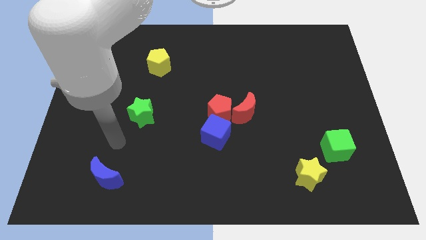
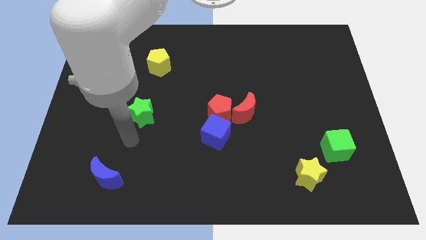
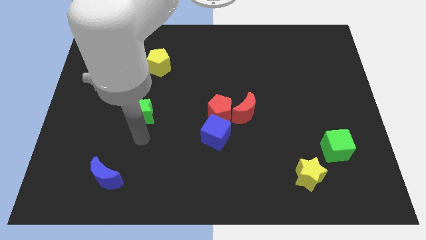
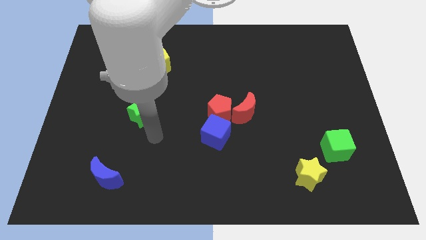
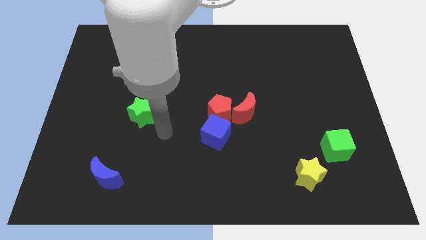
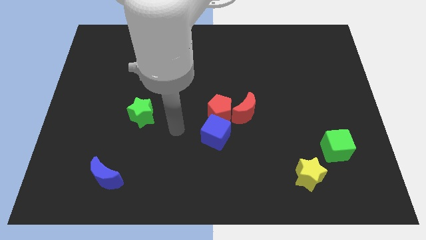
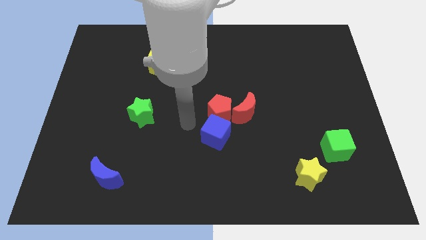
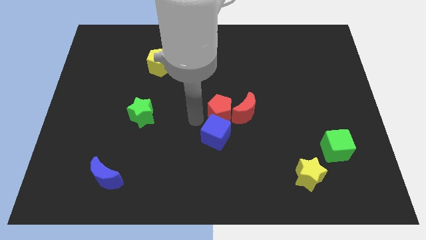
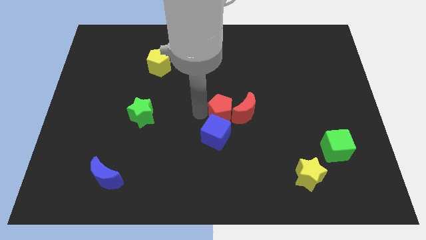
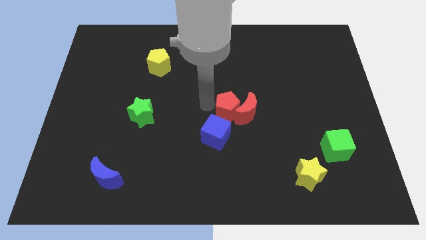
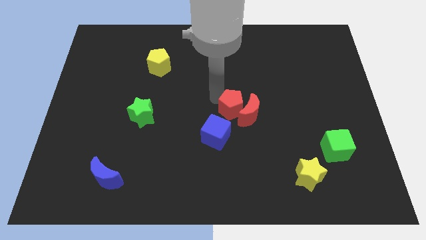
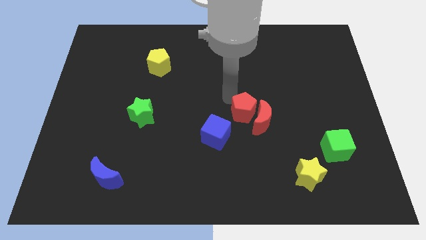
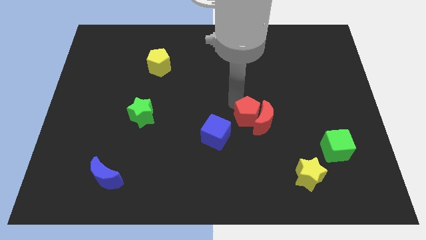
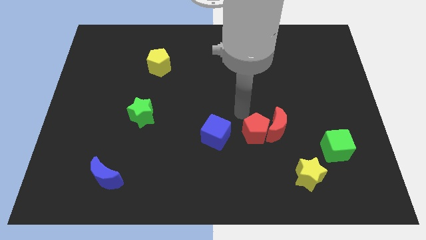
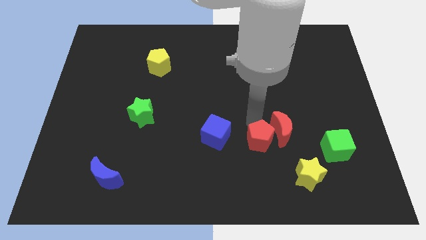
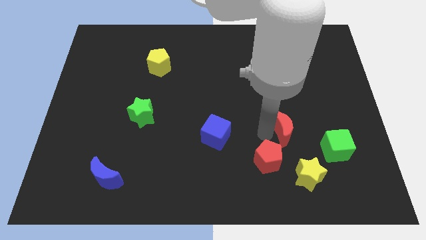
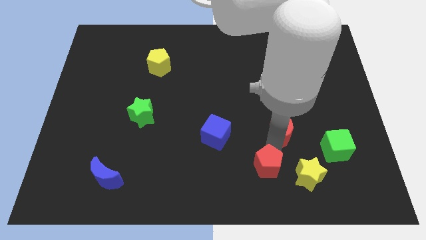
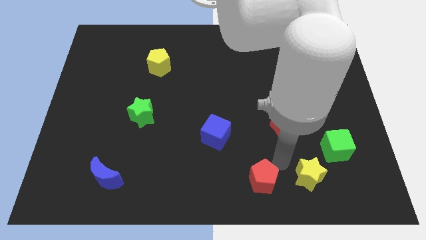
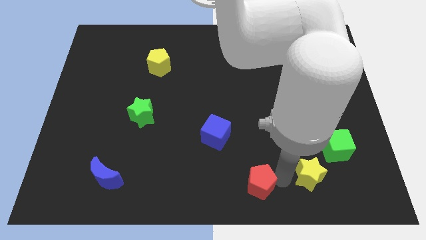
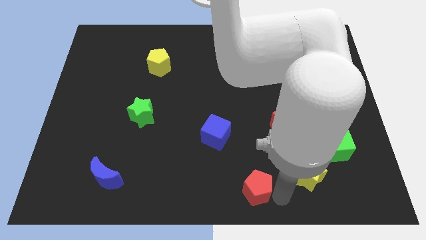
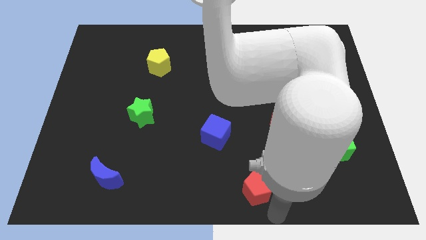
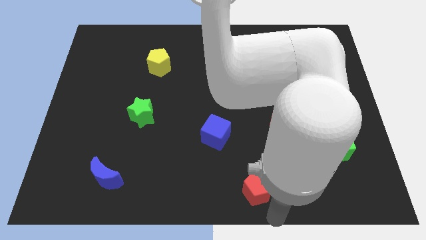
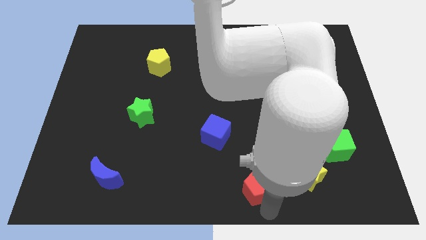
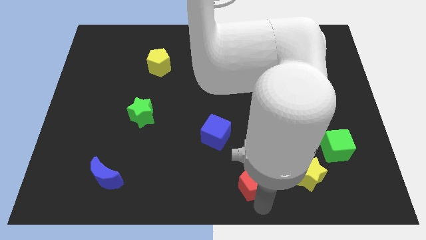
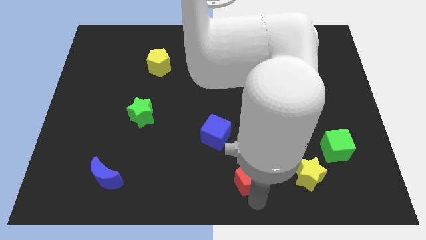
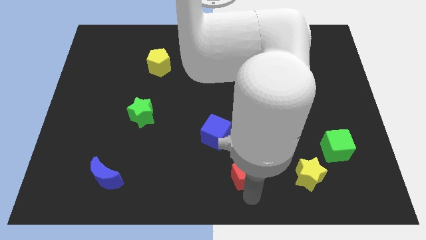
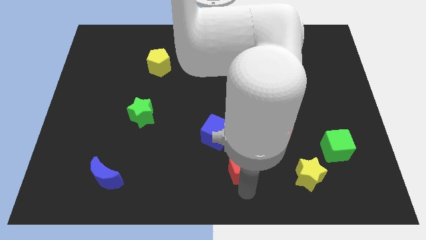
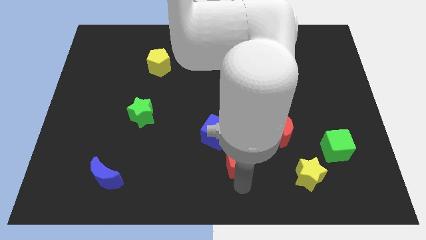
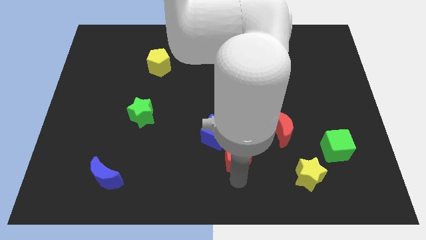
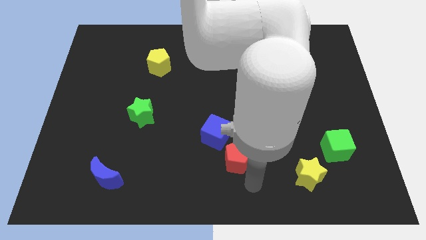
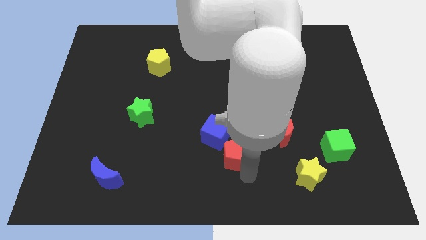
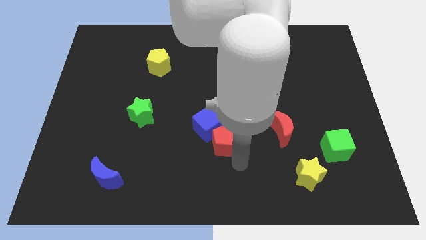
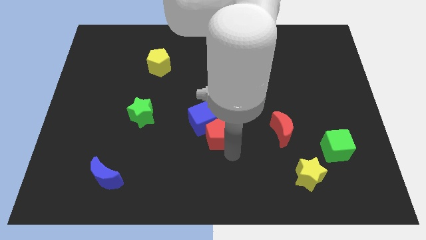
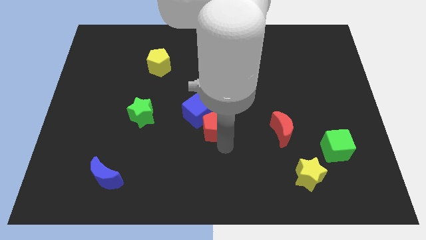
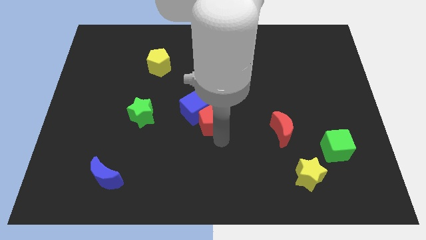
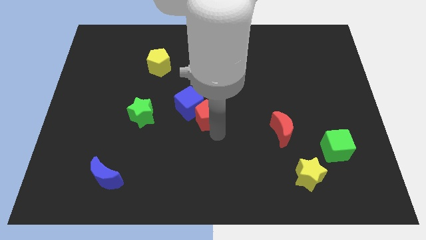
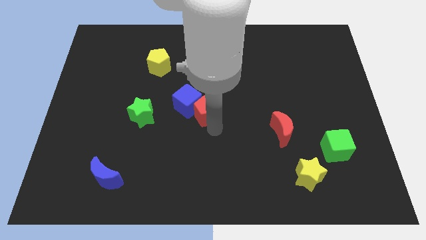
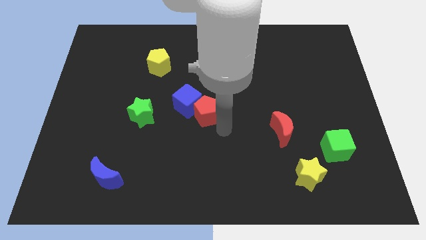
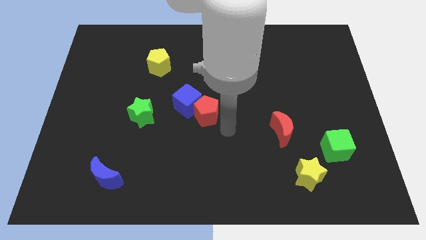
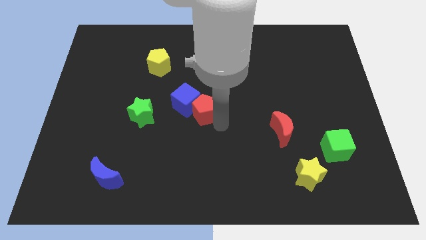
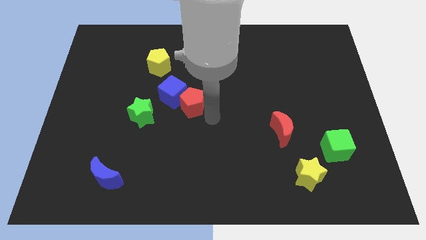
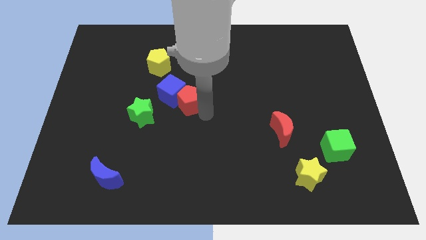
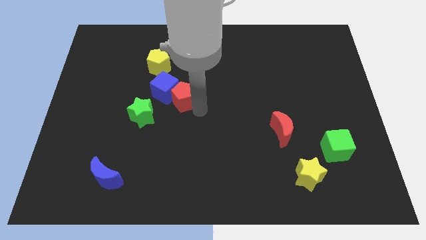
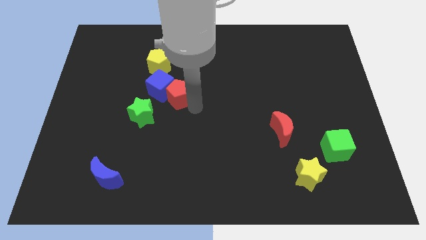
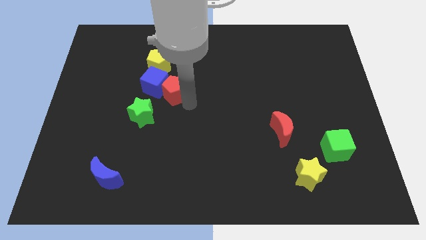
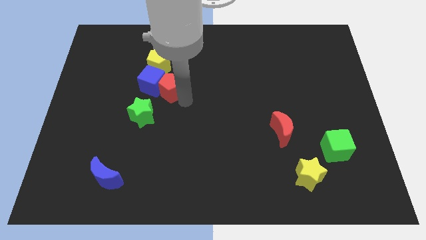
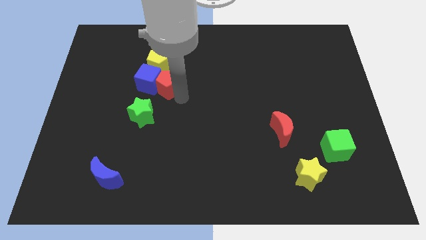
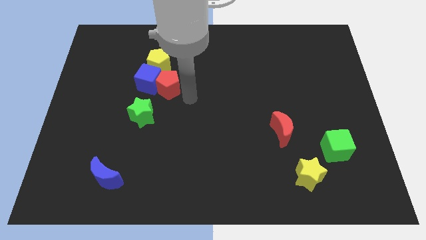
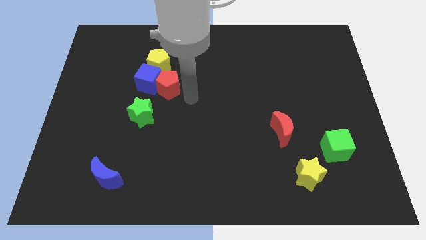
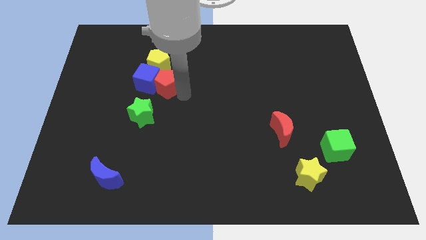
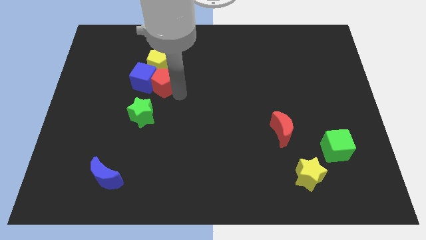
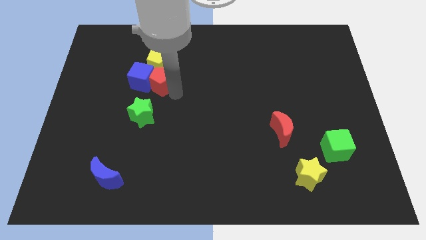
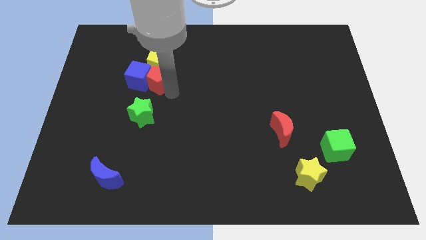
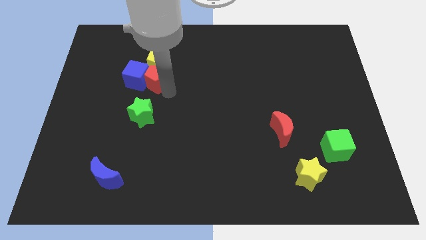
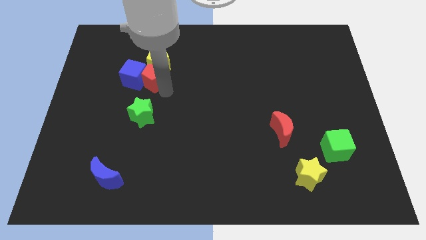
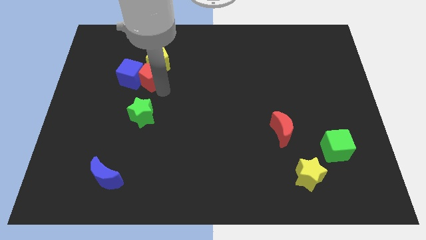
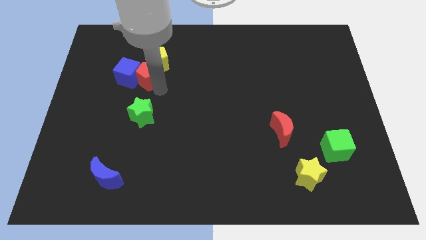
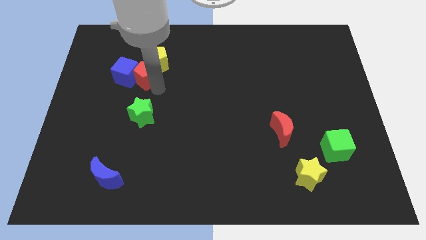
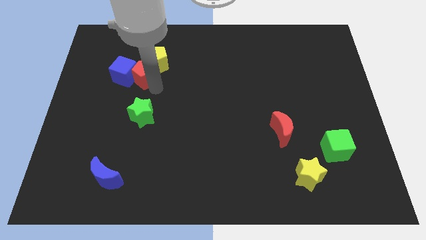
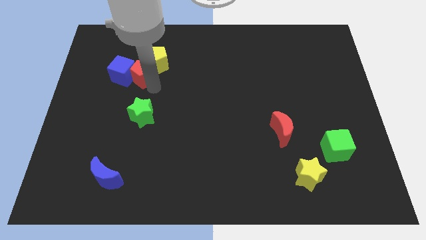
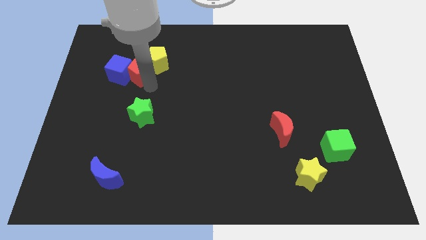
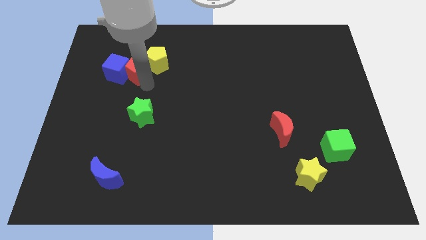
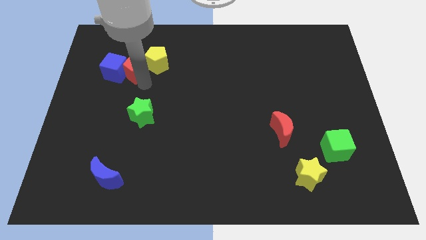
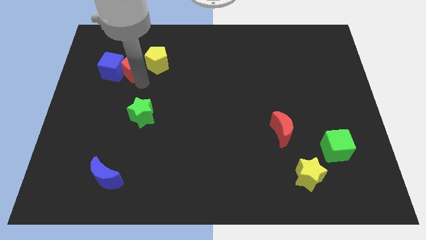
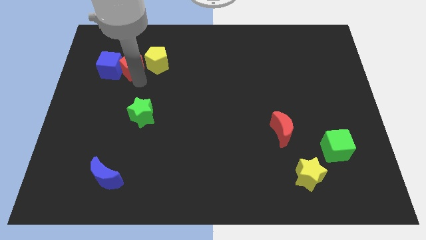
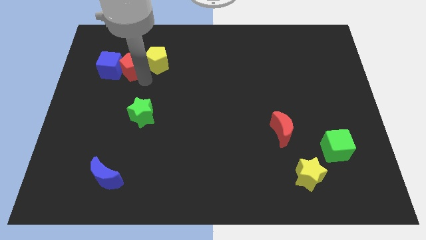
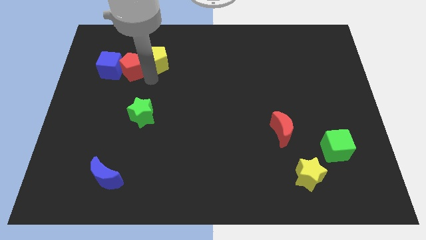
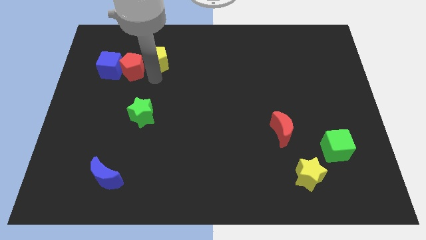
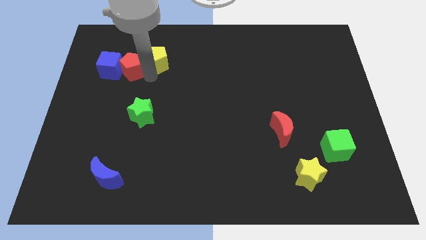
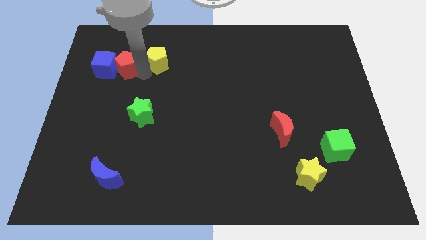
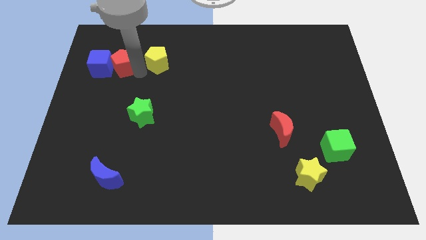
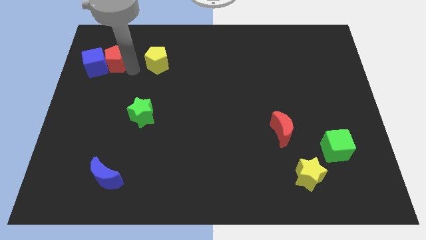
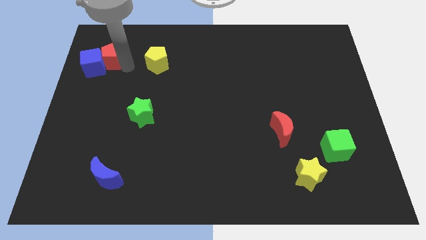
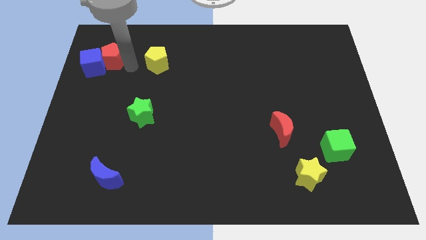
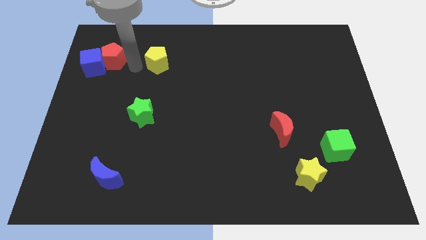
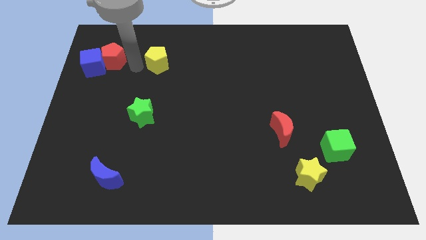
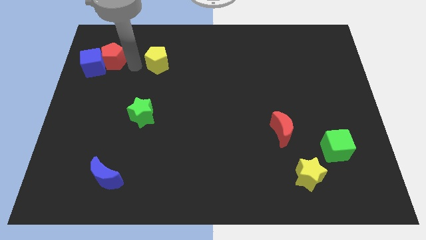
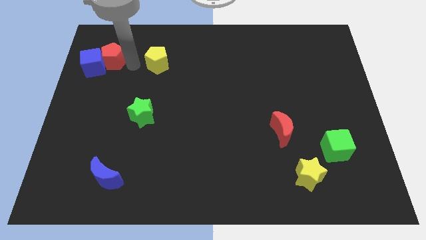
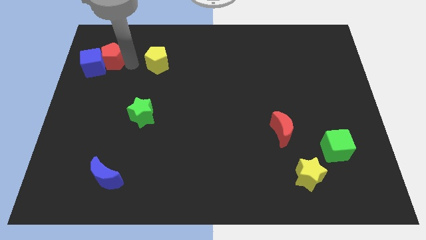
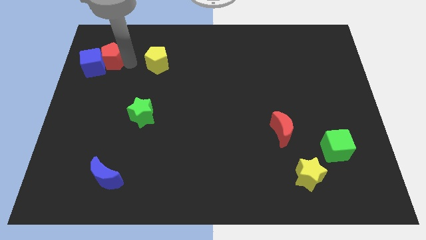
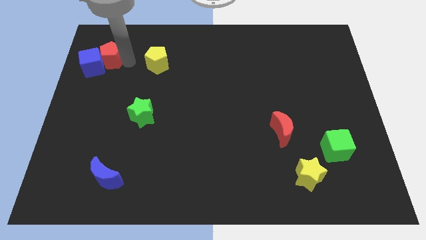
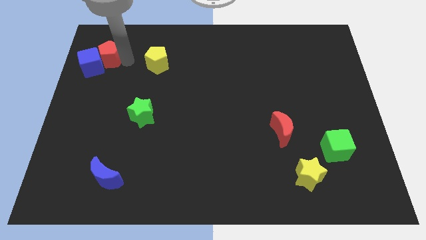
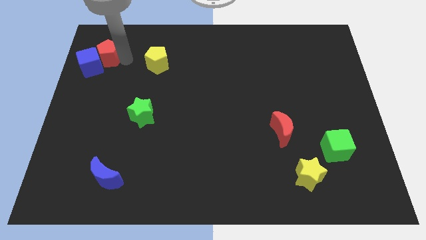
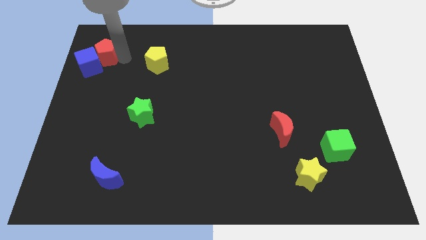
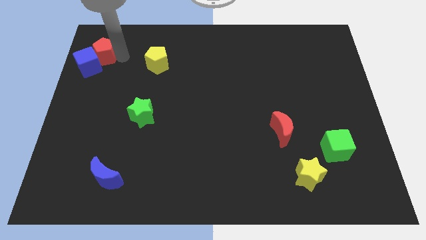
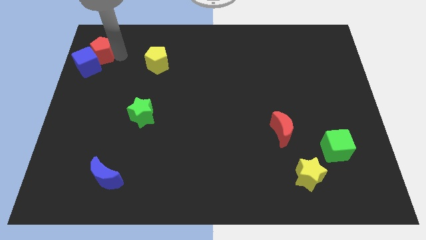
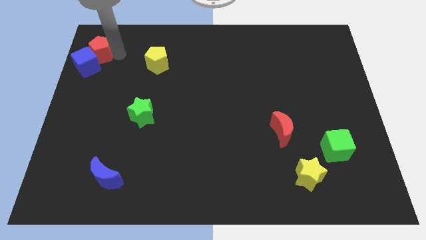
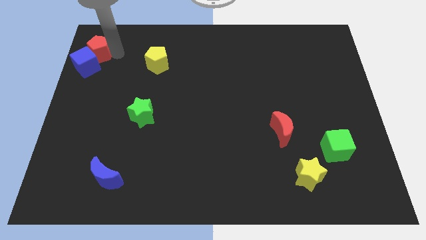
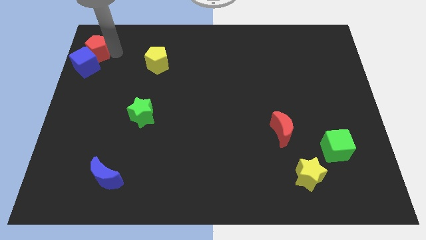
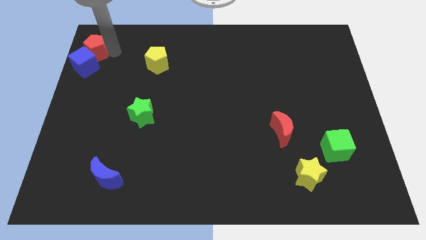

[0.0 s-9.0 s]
put the red pentagon to the upper left corner
